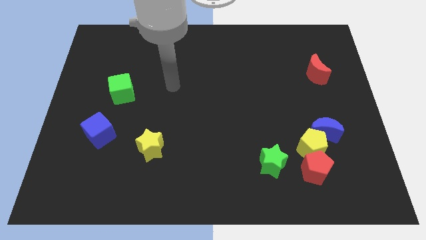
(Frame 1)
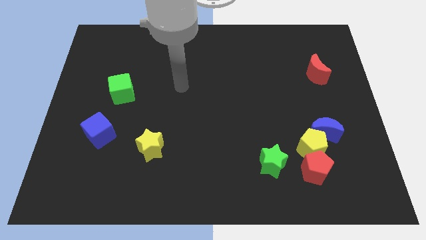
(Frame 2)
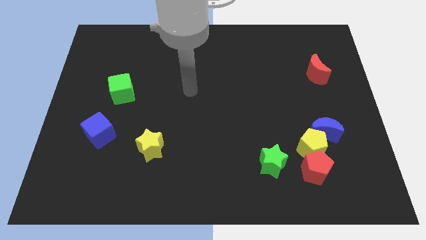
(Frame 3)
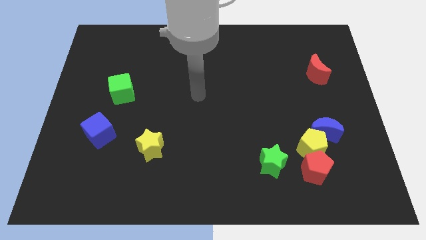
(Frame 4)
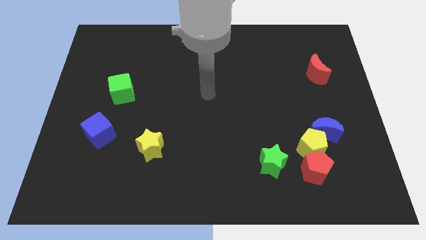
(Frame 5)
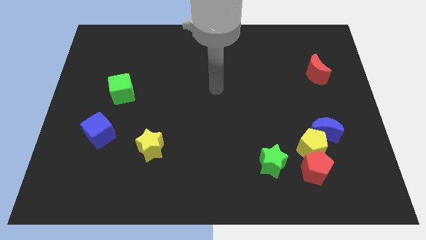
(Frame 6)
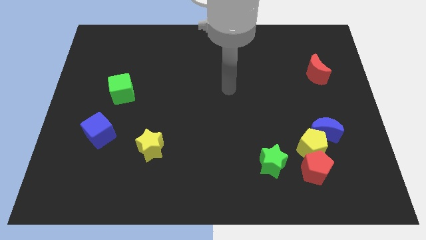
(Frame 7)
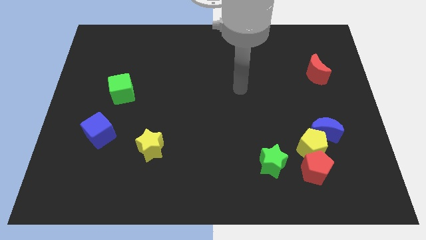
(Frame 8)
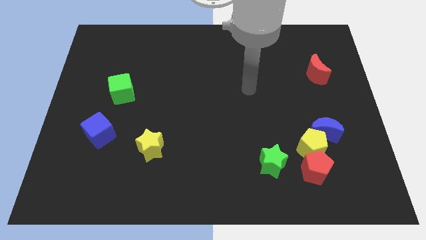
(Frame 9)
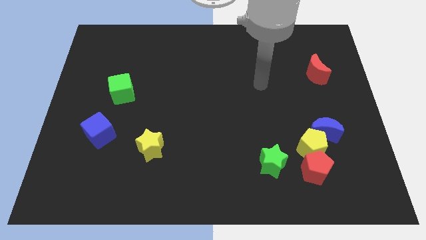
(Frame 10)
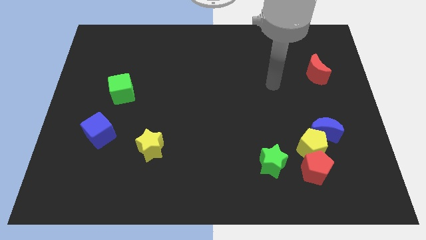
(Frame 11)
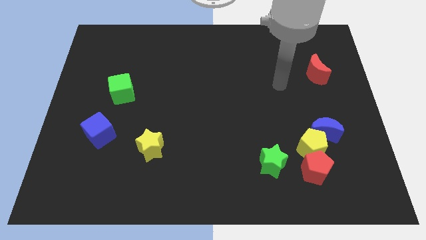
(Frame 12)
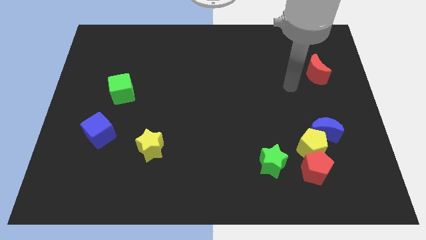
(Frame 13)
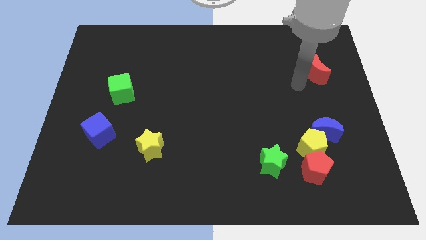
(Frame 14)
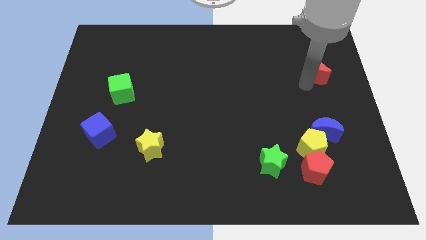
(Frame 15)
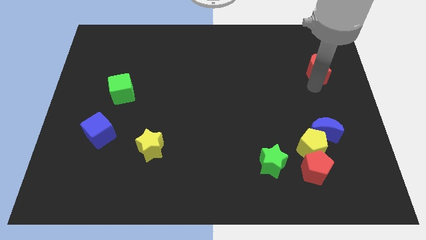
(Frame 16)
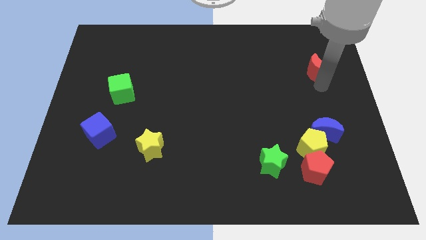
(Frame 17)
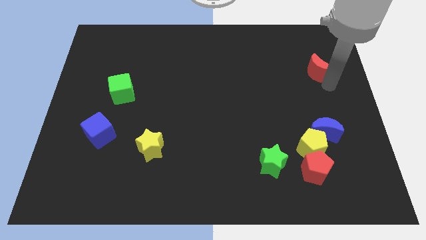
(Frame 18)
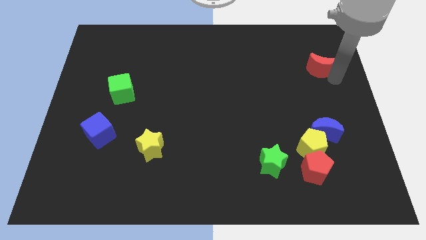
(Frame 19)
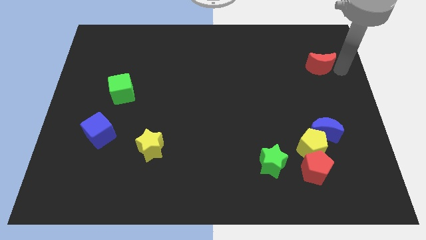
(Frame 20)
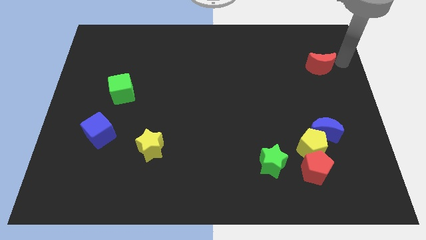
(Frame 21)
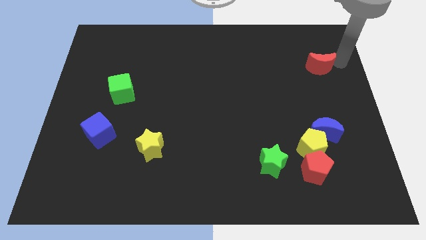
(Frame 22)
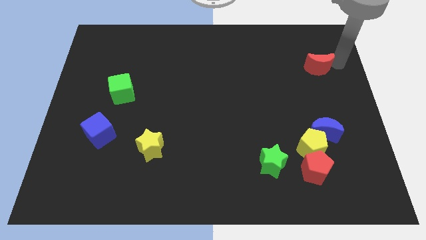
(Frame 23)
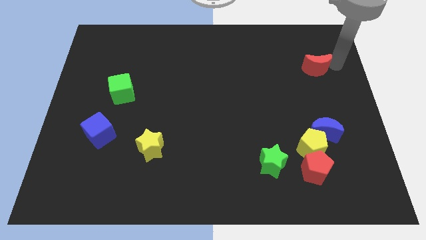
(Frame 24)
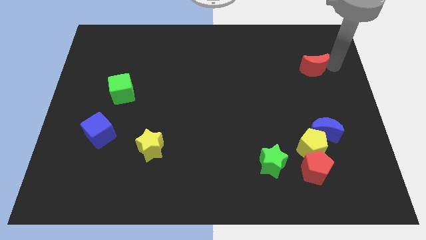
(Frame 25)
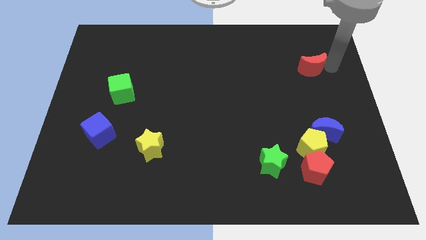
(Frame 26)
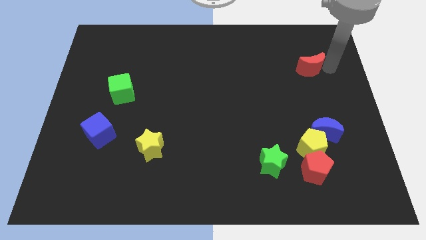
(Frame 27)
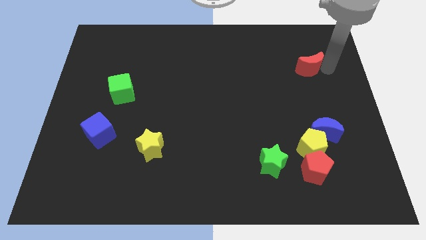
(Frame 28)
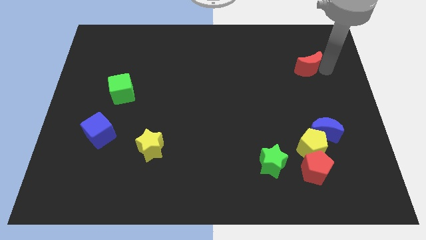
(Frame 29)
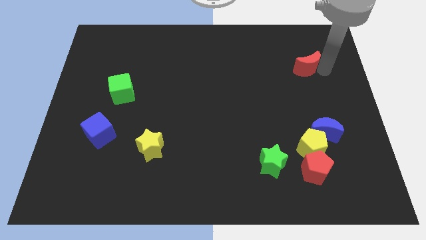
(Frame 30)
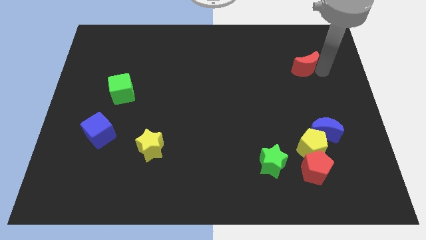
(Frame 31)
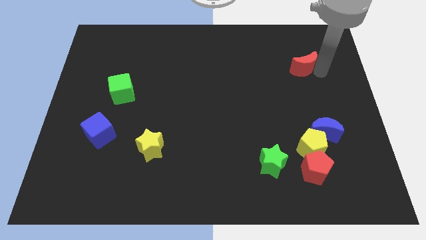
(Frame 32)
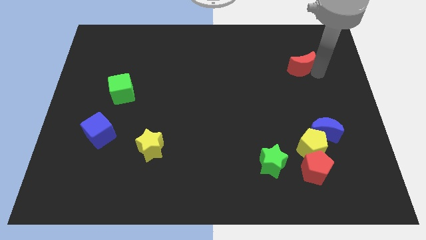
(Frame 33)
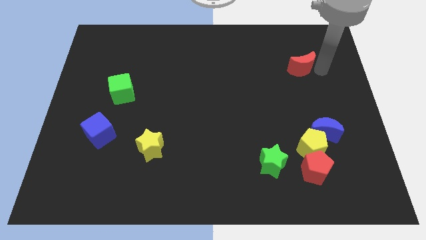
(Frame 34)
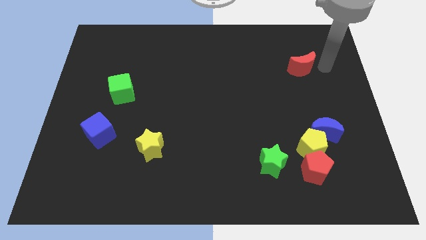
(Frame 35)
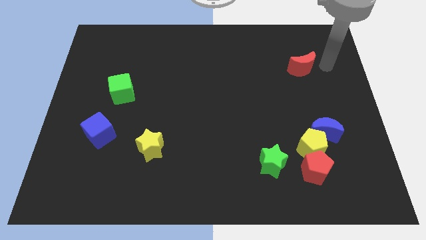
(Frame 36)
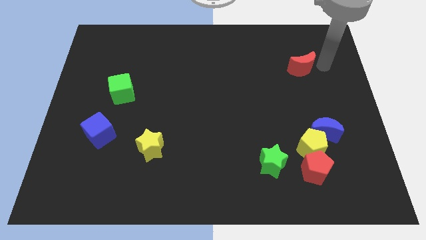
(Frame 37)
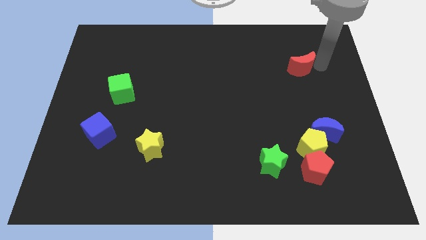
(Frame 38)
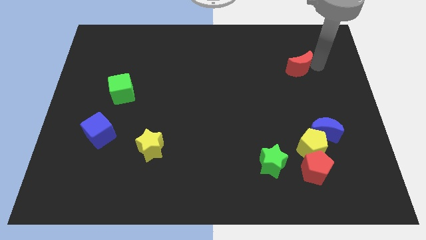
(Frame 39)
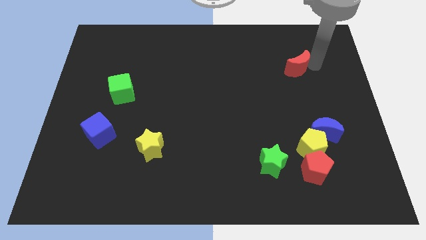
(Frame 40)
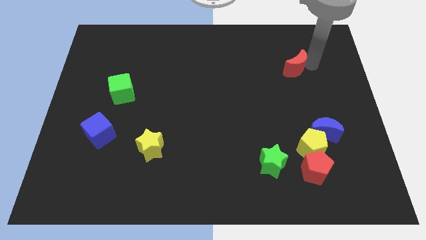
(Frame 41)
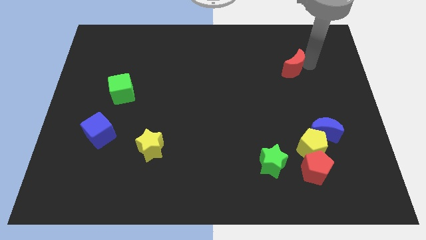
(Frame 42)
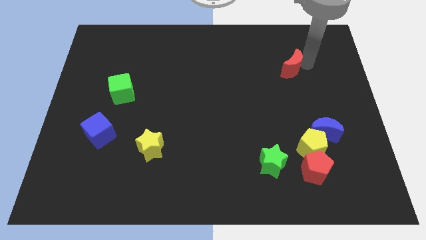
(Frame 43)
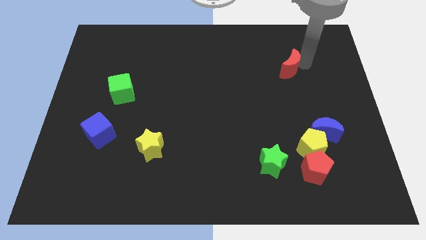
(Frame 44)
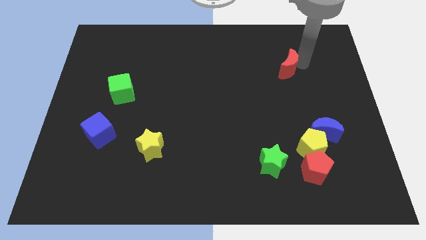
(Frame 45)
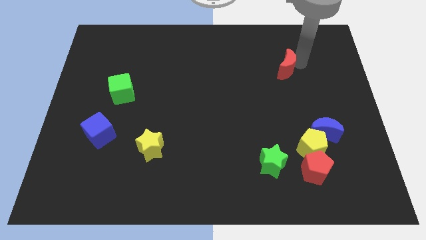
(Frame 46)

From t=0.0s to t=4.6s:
slightly move the red moon to the left

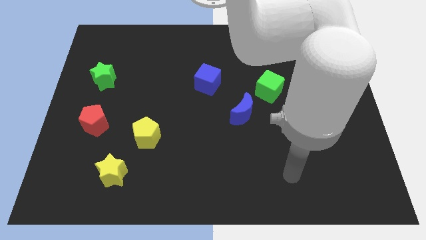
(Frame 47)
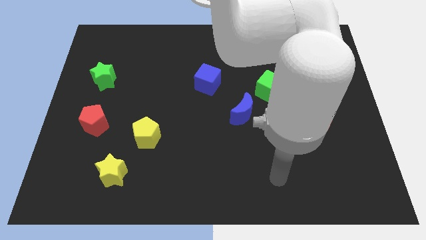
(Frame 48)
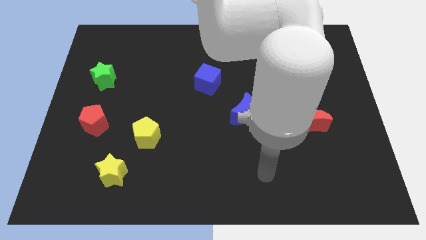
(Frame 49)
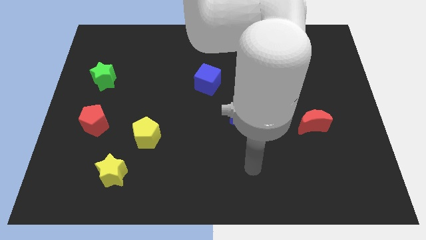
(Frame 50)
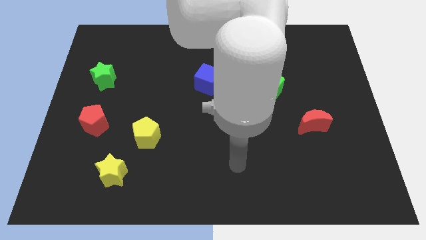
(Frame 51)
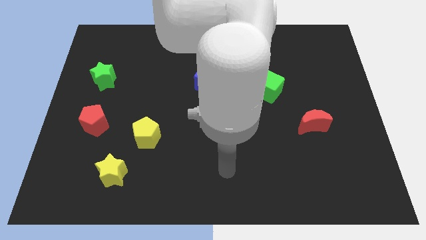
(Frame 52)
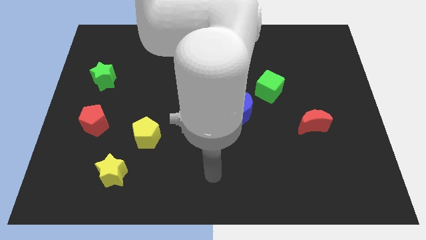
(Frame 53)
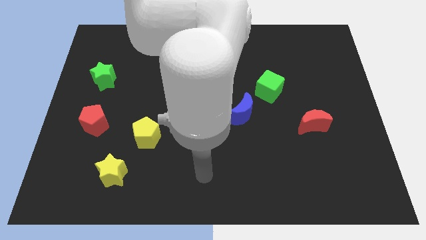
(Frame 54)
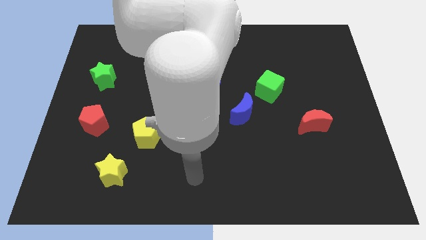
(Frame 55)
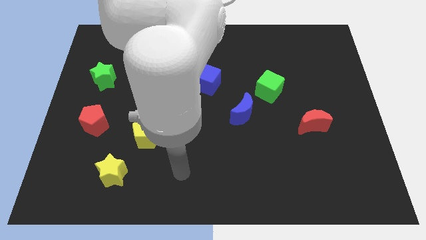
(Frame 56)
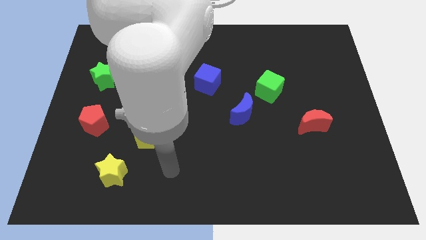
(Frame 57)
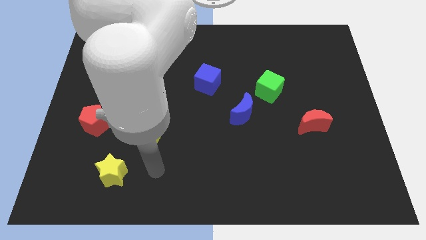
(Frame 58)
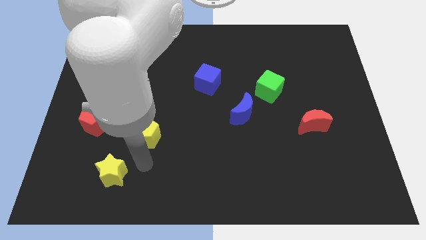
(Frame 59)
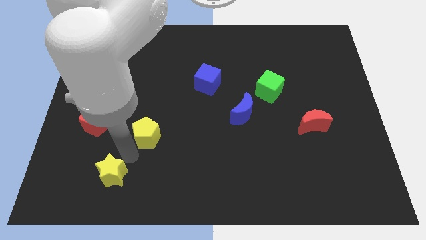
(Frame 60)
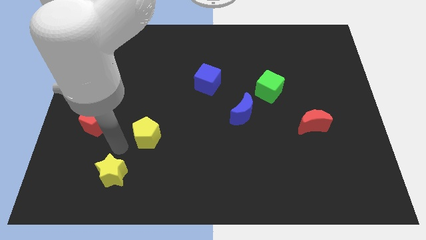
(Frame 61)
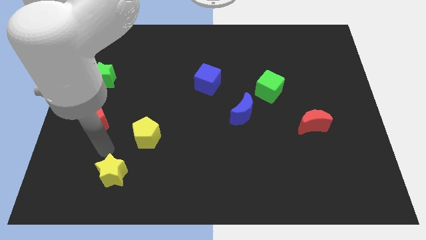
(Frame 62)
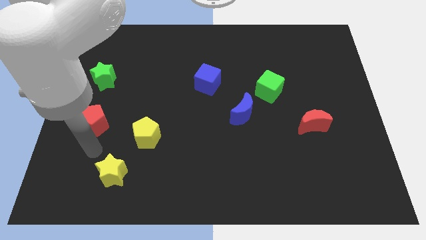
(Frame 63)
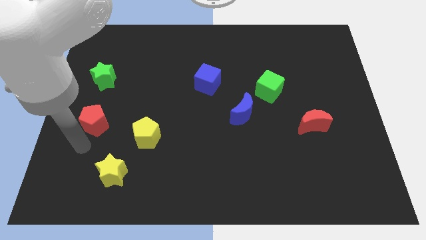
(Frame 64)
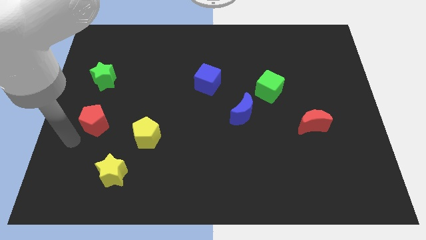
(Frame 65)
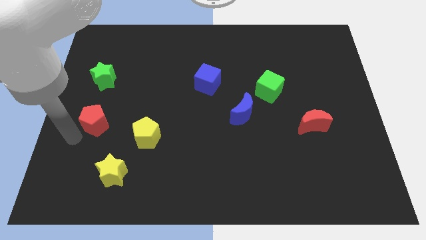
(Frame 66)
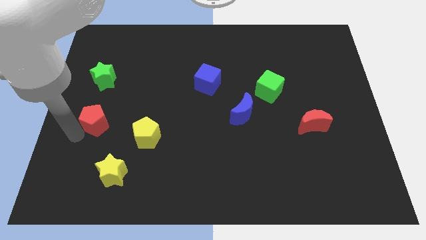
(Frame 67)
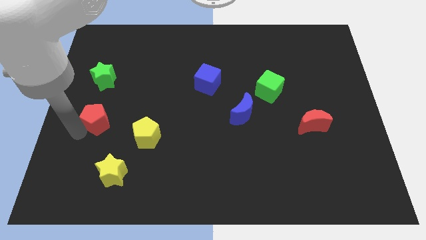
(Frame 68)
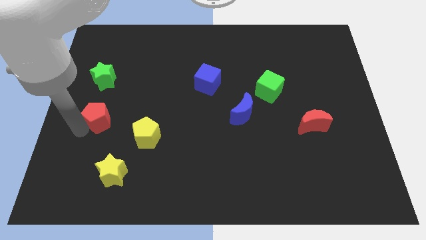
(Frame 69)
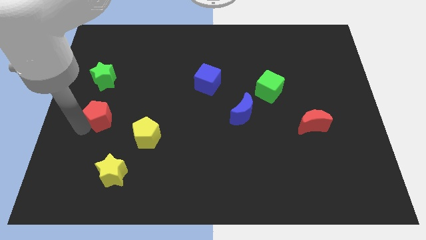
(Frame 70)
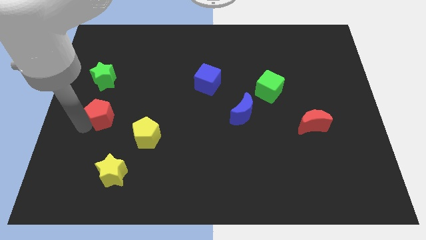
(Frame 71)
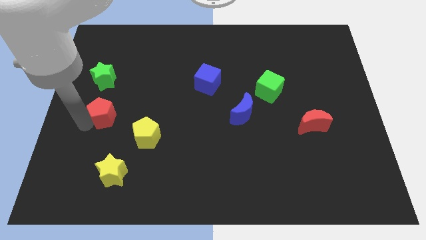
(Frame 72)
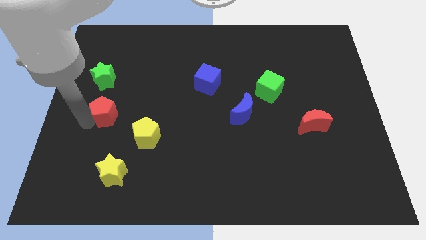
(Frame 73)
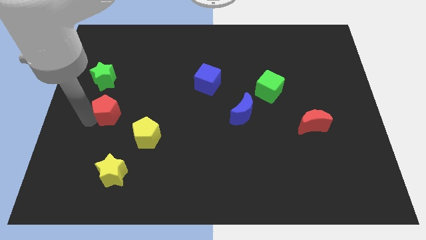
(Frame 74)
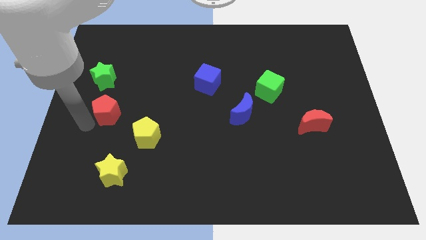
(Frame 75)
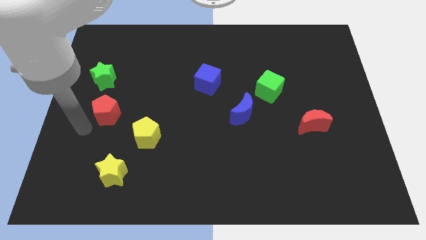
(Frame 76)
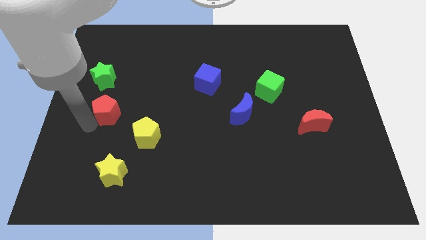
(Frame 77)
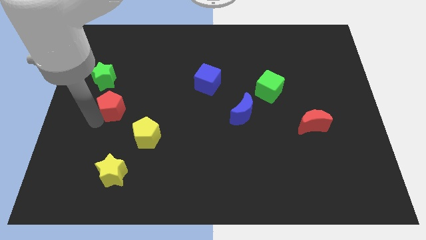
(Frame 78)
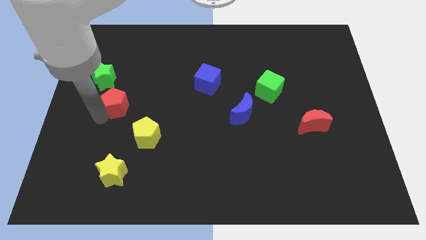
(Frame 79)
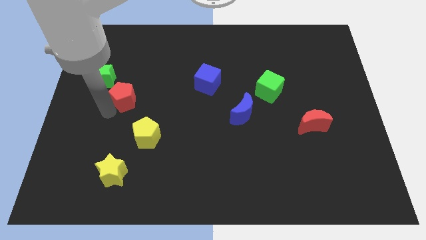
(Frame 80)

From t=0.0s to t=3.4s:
move the red pentagon up and to the right diagonally a bit
